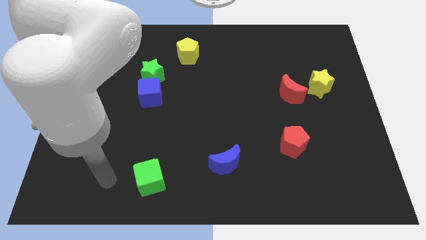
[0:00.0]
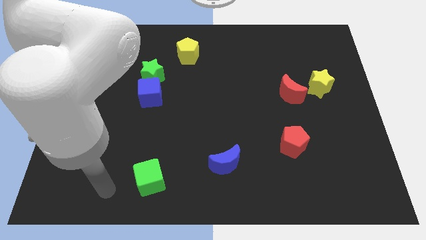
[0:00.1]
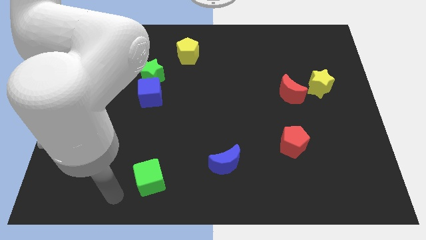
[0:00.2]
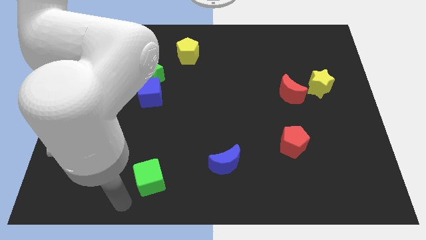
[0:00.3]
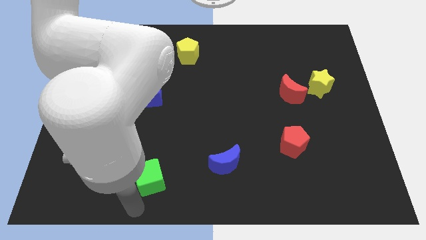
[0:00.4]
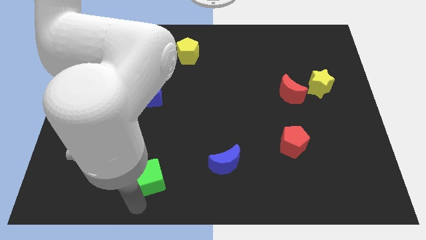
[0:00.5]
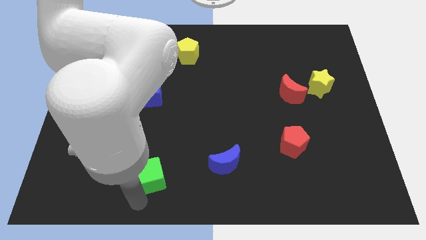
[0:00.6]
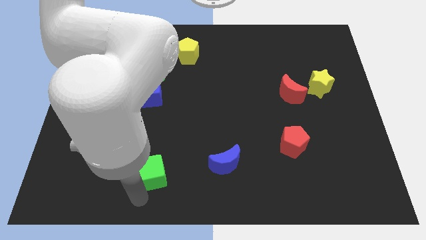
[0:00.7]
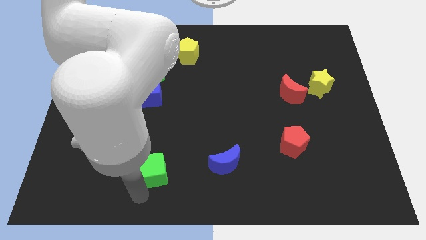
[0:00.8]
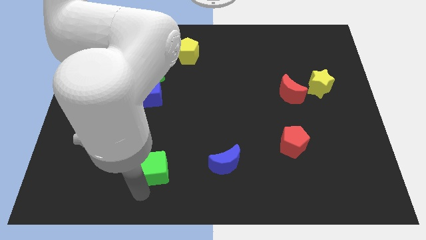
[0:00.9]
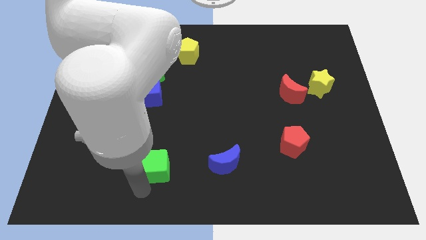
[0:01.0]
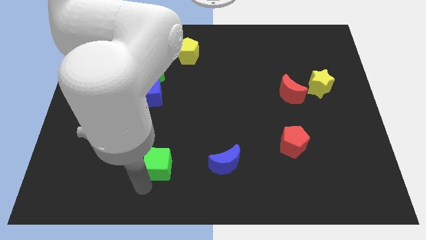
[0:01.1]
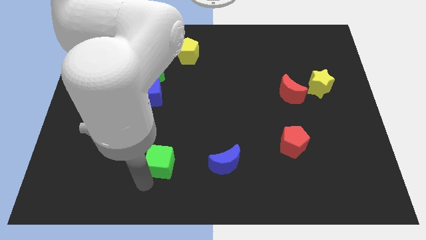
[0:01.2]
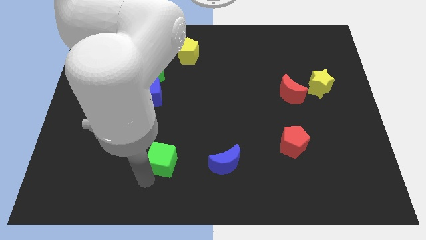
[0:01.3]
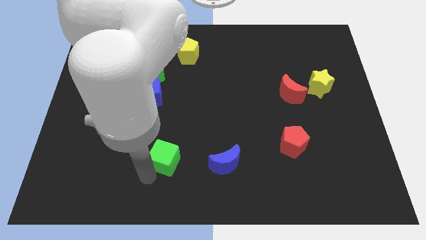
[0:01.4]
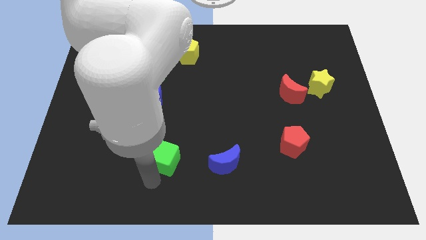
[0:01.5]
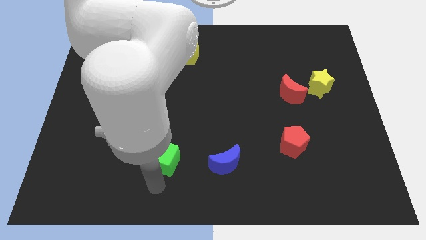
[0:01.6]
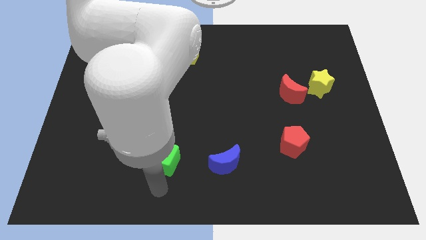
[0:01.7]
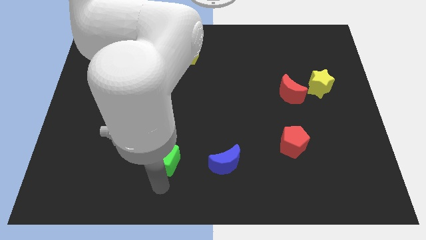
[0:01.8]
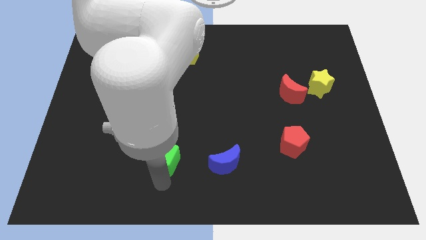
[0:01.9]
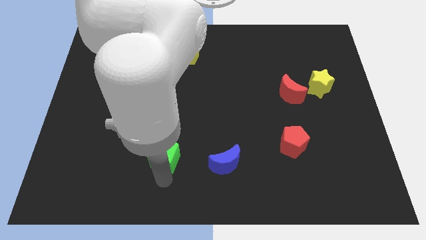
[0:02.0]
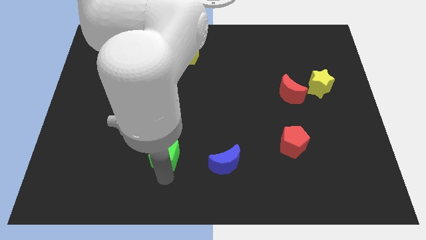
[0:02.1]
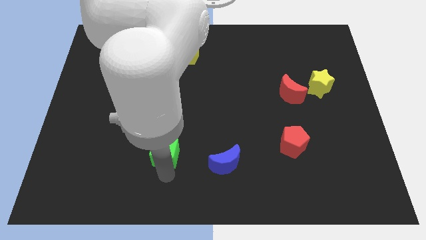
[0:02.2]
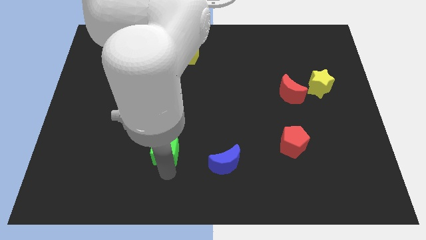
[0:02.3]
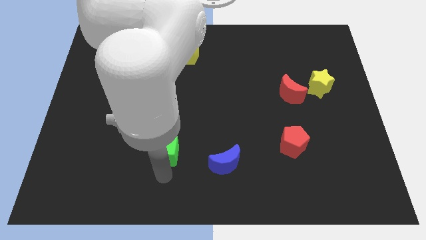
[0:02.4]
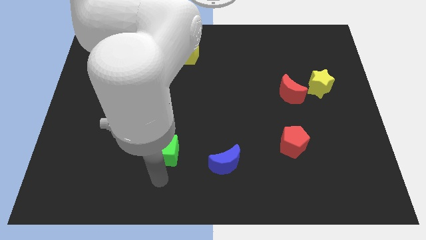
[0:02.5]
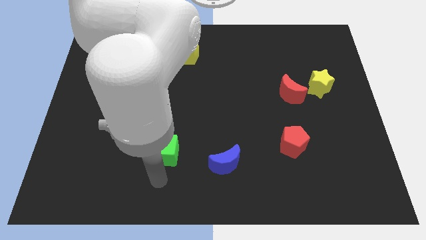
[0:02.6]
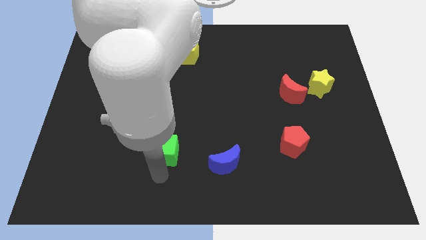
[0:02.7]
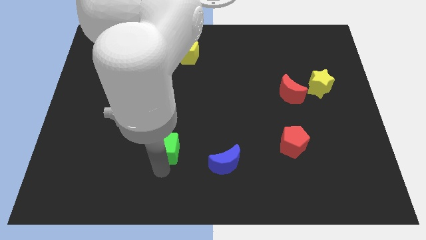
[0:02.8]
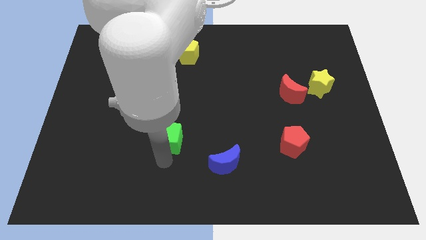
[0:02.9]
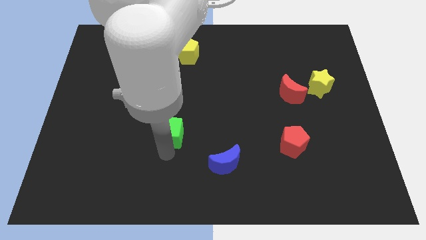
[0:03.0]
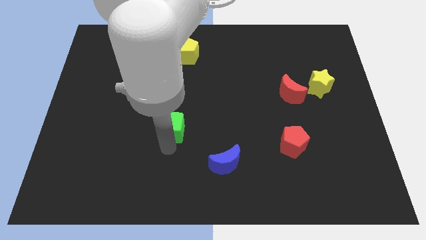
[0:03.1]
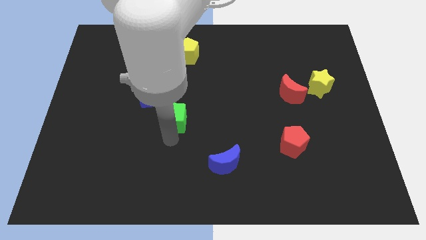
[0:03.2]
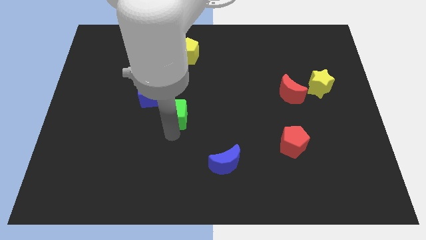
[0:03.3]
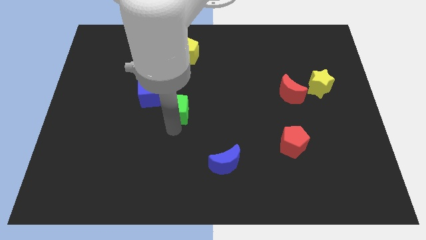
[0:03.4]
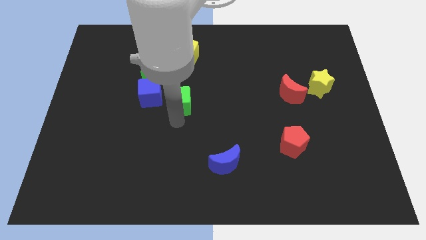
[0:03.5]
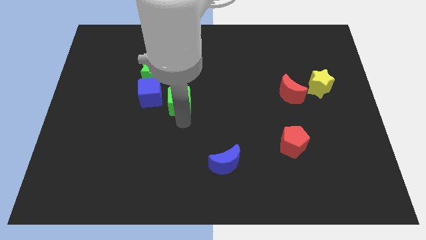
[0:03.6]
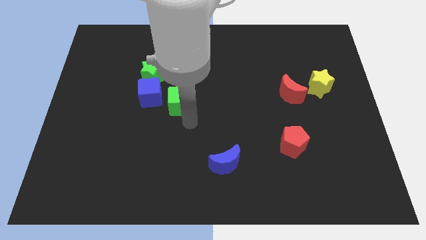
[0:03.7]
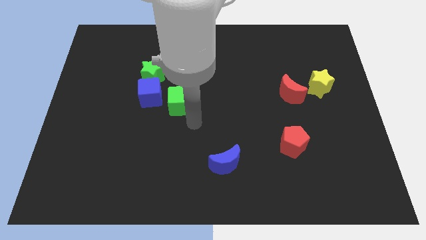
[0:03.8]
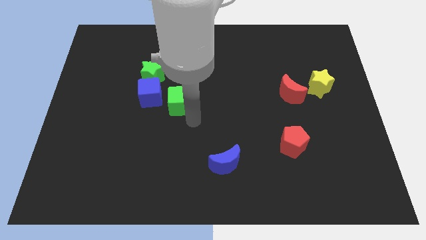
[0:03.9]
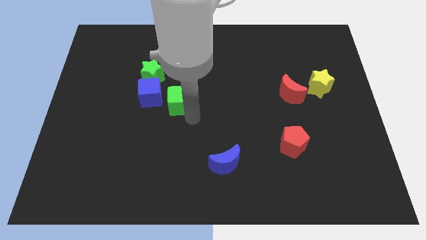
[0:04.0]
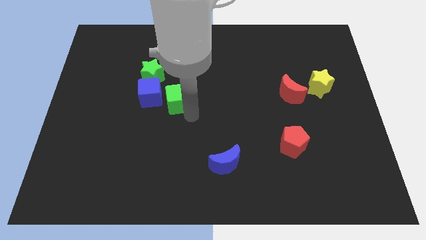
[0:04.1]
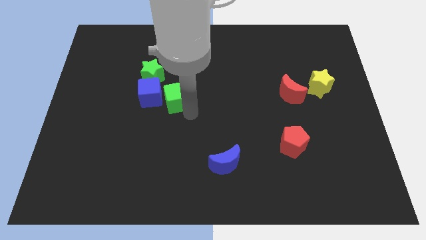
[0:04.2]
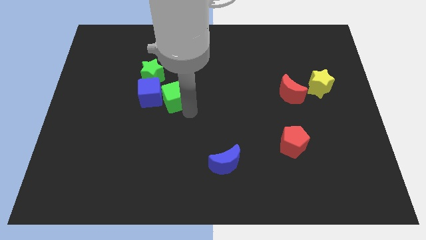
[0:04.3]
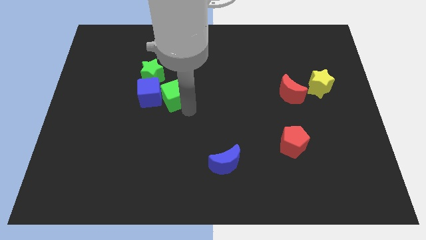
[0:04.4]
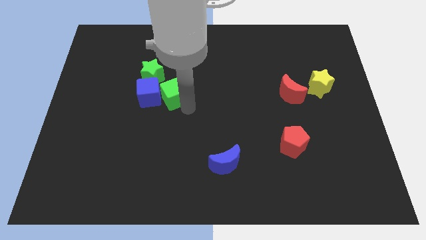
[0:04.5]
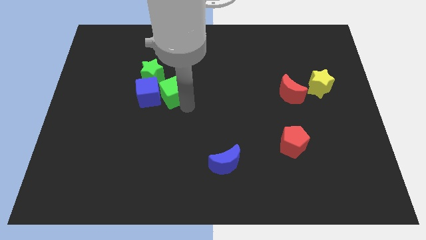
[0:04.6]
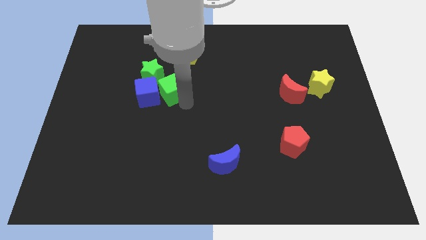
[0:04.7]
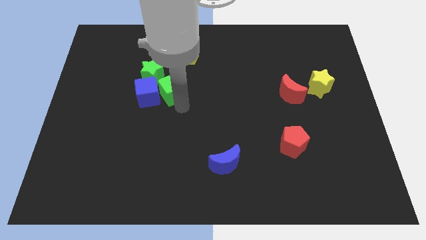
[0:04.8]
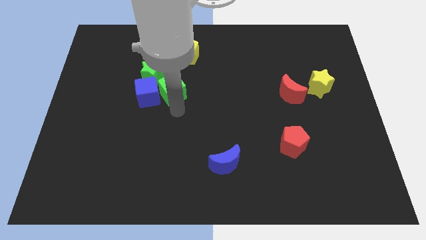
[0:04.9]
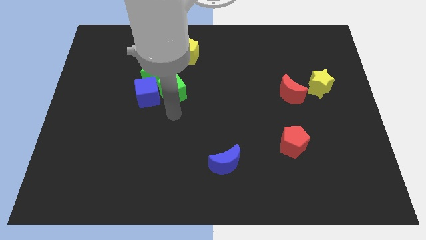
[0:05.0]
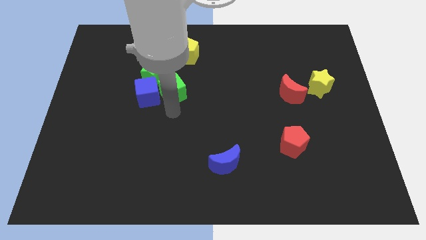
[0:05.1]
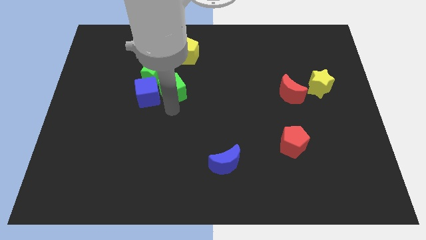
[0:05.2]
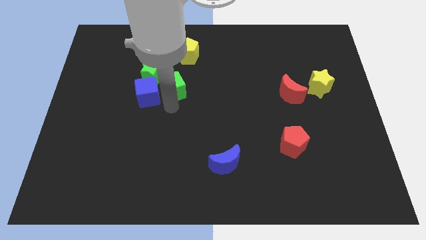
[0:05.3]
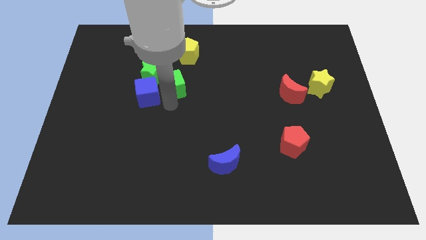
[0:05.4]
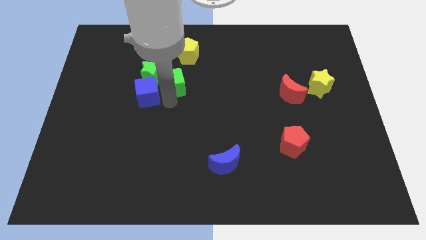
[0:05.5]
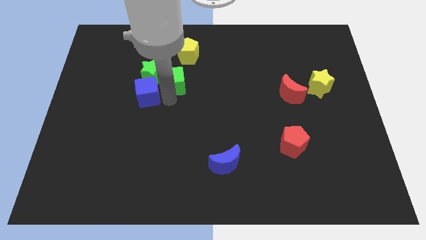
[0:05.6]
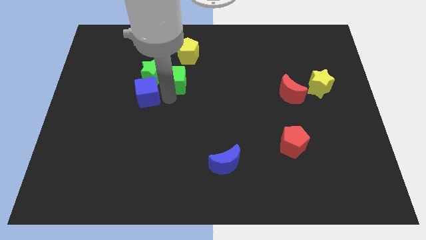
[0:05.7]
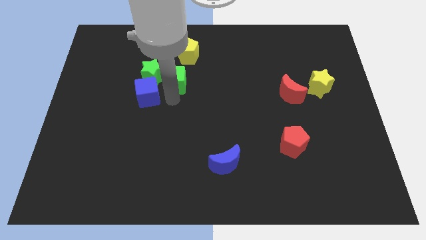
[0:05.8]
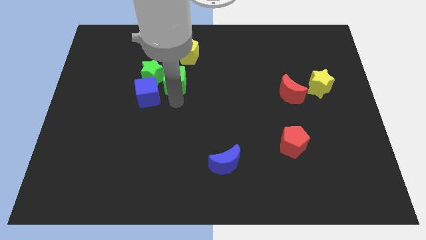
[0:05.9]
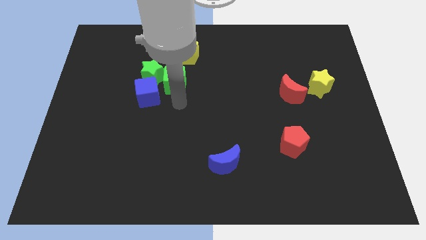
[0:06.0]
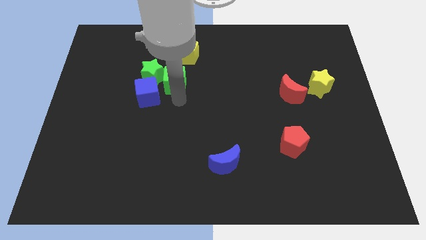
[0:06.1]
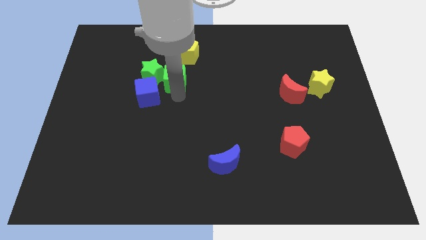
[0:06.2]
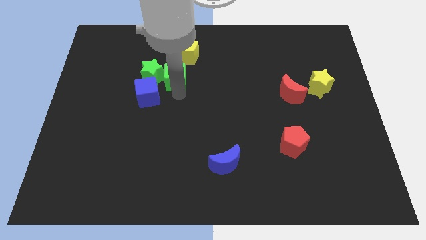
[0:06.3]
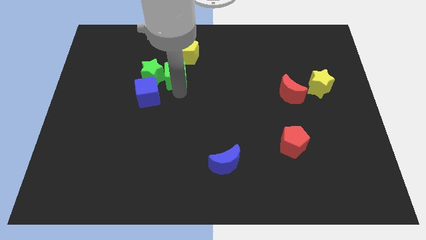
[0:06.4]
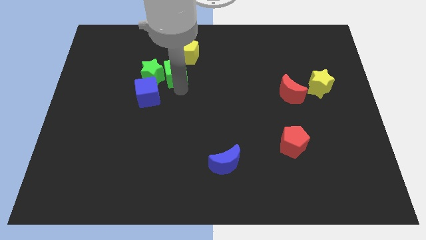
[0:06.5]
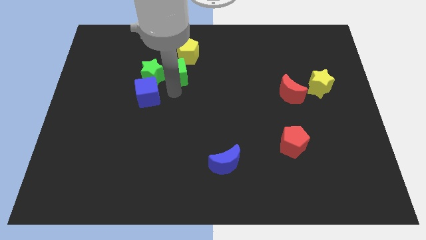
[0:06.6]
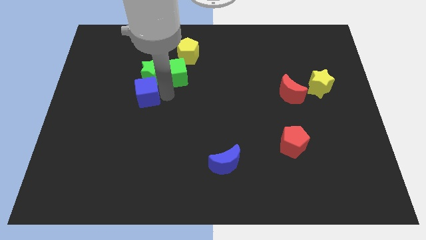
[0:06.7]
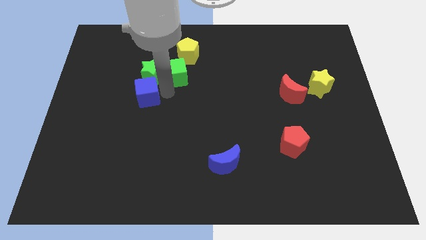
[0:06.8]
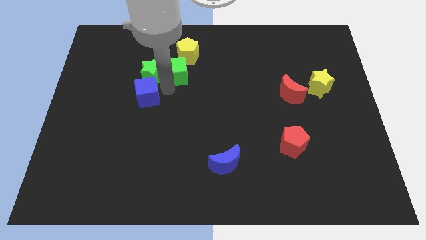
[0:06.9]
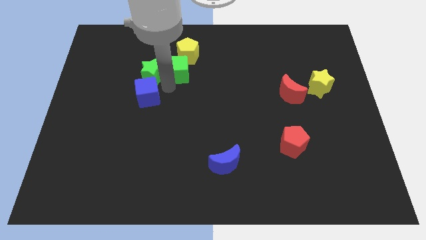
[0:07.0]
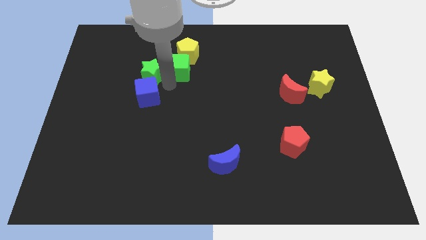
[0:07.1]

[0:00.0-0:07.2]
slide the green cube to the yellow pentagon

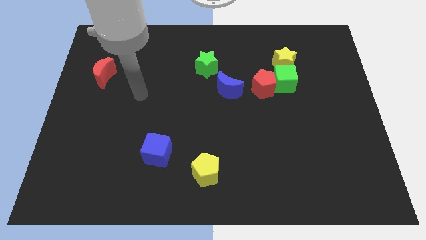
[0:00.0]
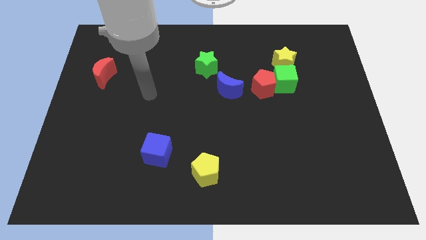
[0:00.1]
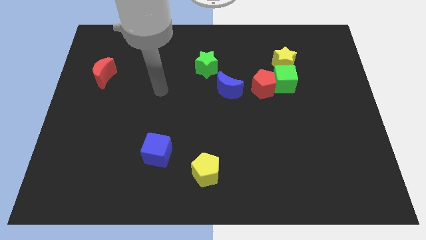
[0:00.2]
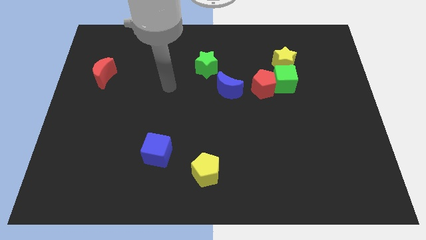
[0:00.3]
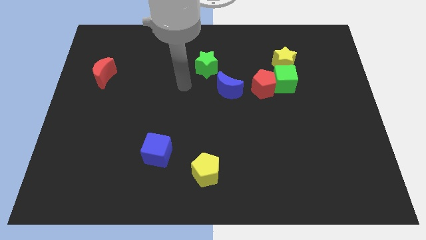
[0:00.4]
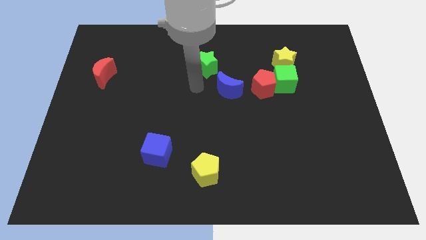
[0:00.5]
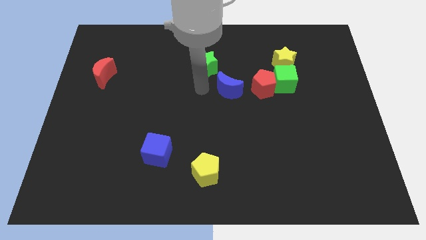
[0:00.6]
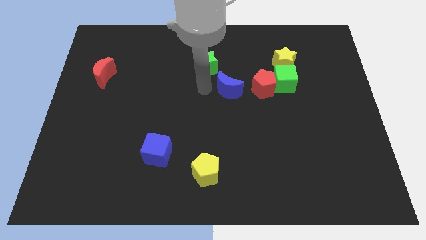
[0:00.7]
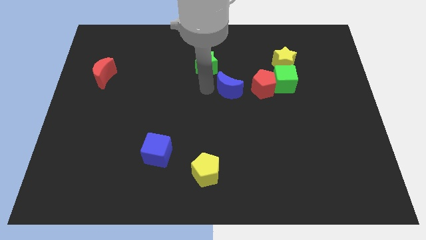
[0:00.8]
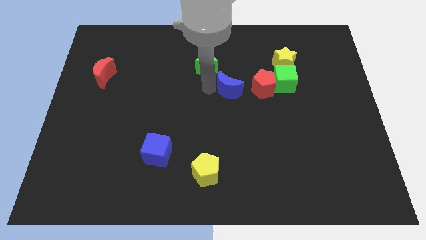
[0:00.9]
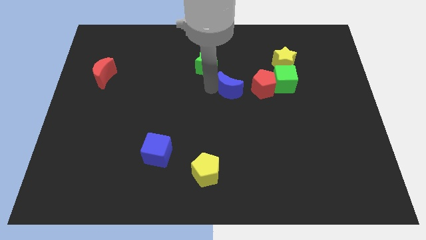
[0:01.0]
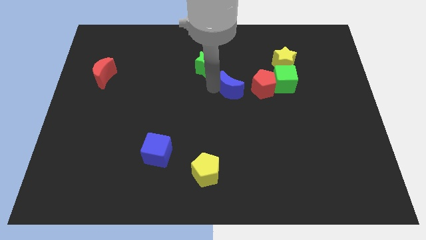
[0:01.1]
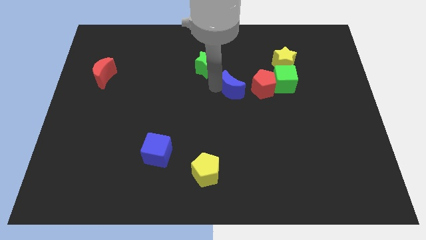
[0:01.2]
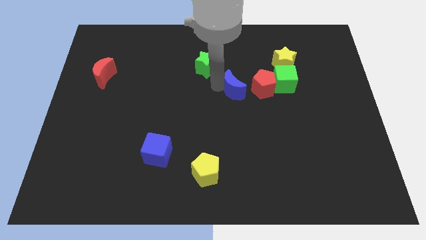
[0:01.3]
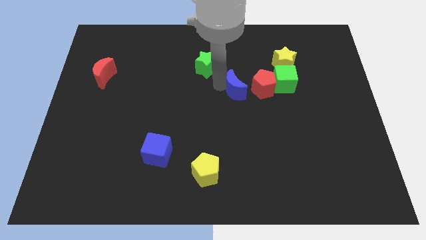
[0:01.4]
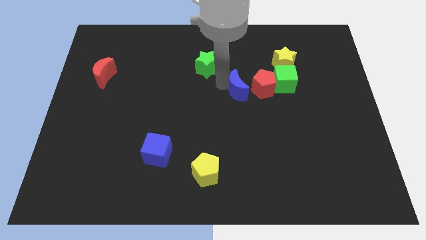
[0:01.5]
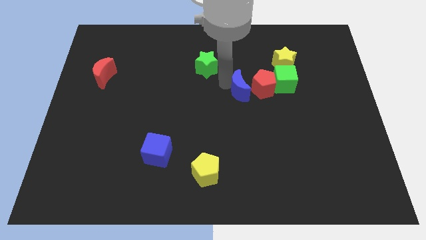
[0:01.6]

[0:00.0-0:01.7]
slide the blue moon to the red pentagon
